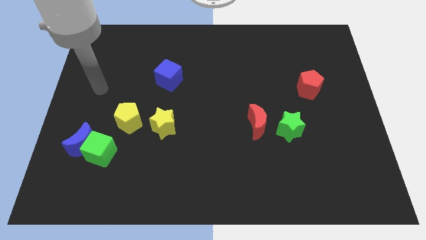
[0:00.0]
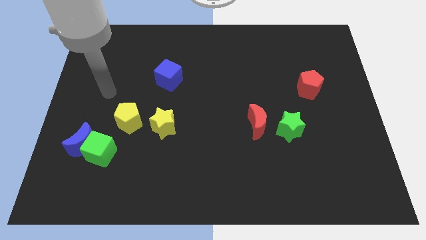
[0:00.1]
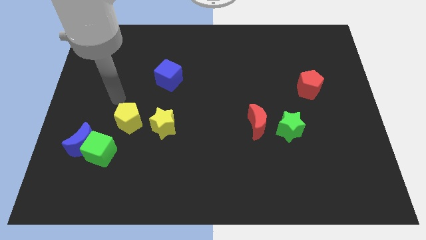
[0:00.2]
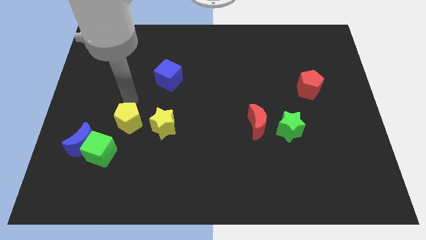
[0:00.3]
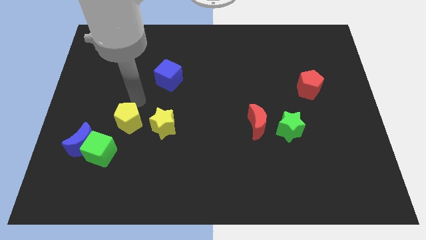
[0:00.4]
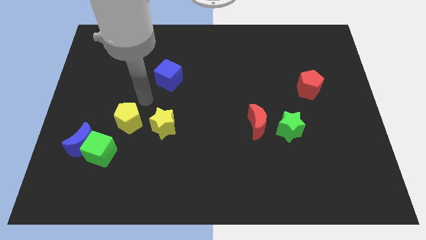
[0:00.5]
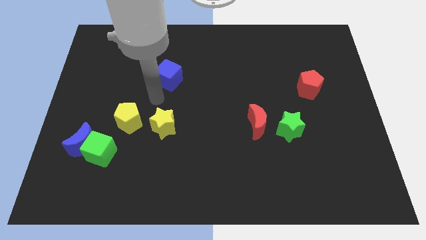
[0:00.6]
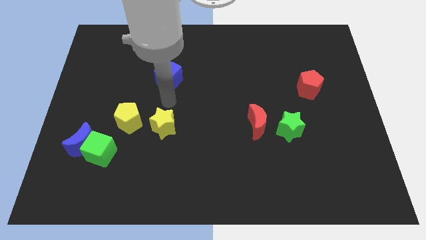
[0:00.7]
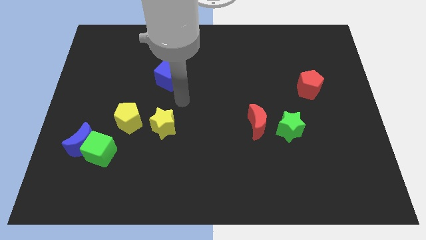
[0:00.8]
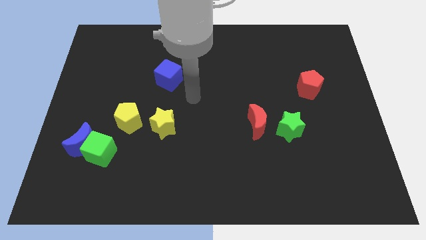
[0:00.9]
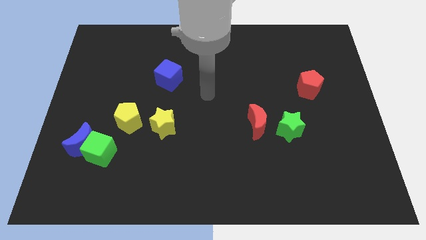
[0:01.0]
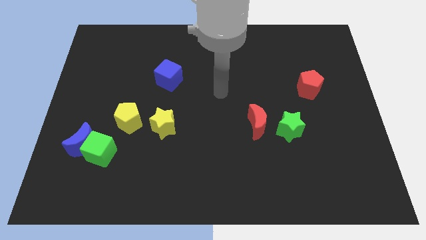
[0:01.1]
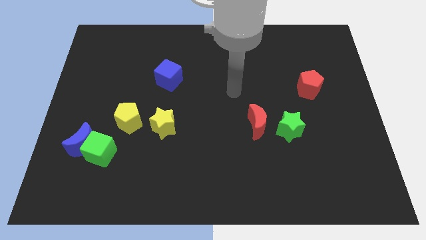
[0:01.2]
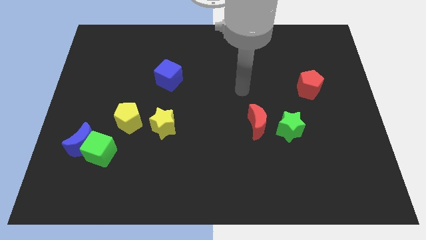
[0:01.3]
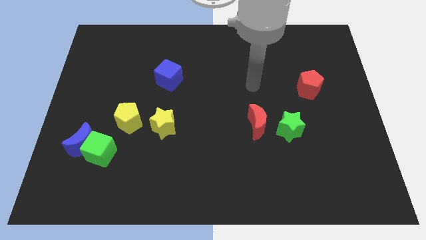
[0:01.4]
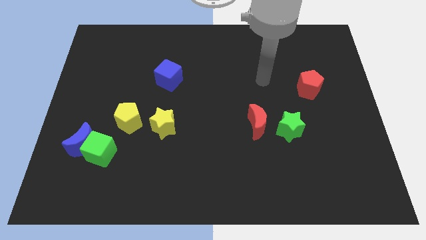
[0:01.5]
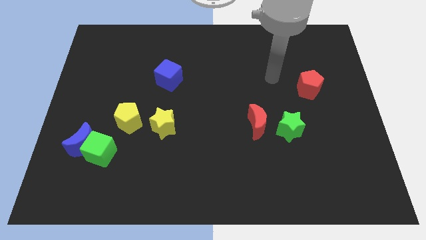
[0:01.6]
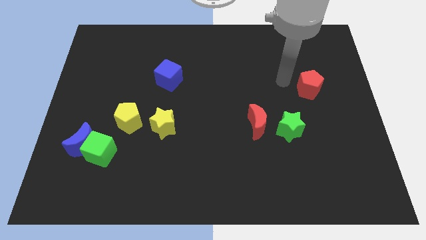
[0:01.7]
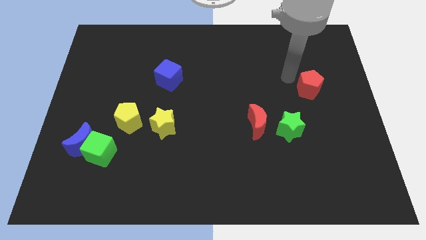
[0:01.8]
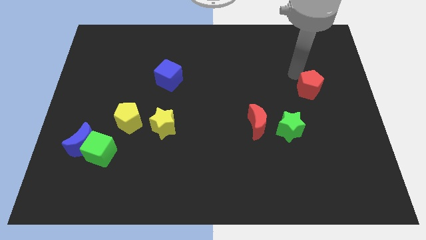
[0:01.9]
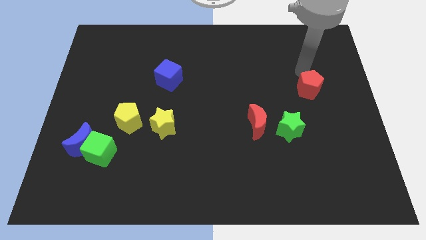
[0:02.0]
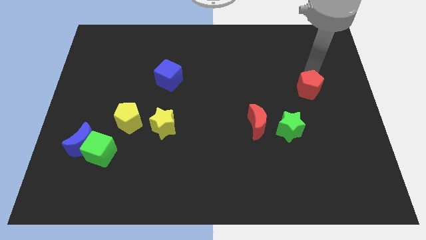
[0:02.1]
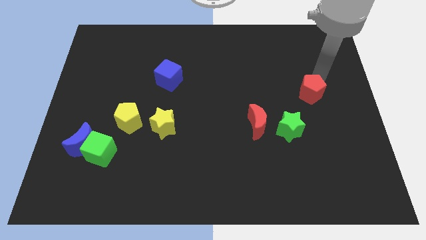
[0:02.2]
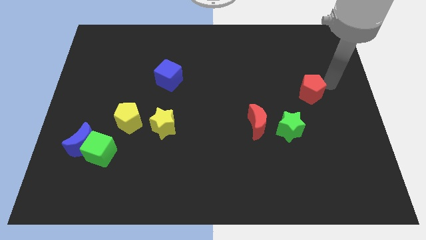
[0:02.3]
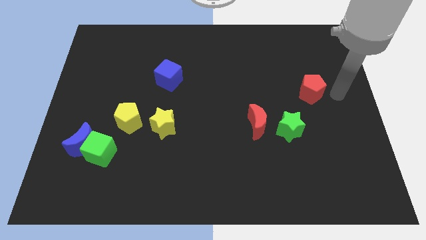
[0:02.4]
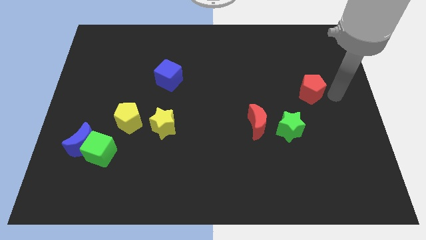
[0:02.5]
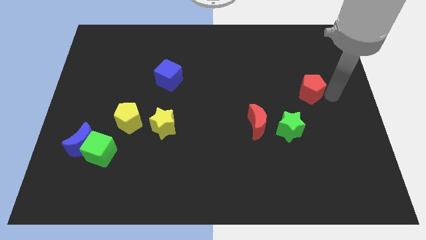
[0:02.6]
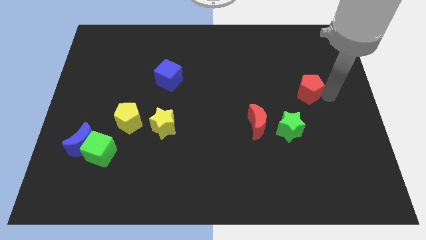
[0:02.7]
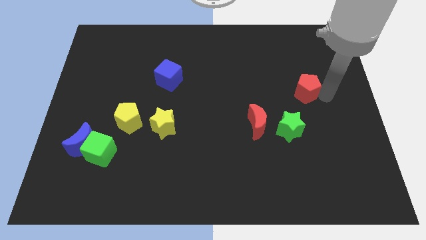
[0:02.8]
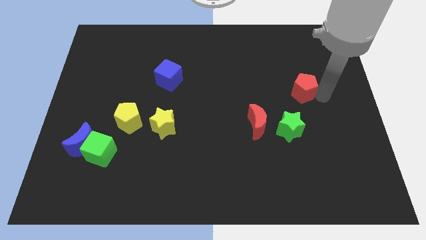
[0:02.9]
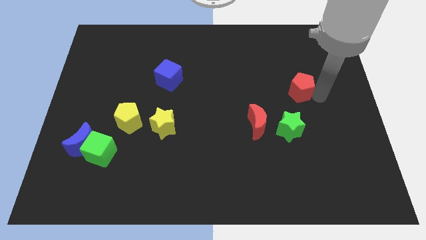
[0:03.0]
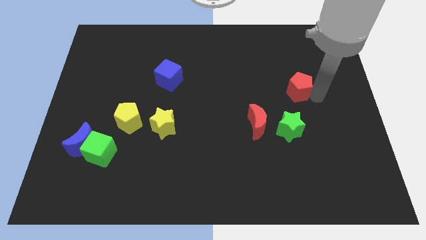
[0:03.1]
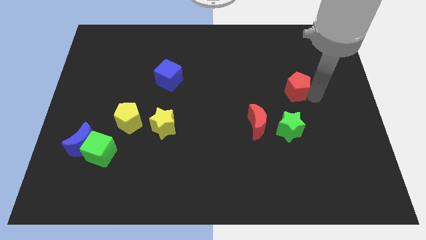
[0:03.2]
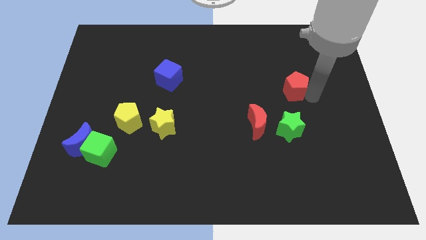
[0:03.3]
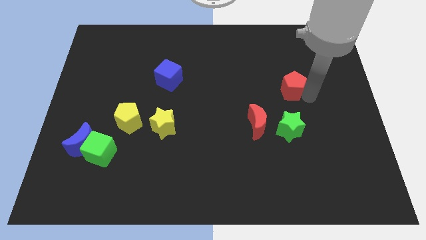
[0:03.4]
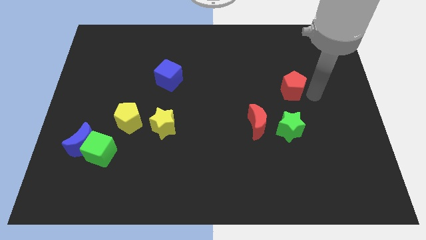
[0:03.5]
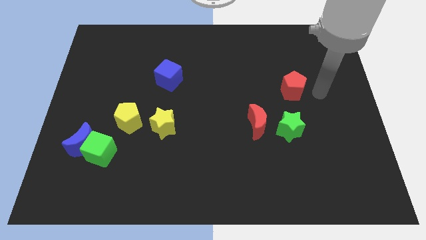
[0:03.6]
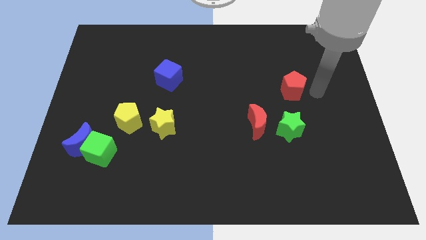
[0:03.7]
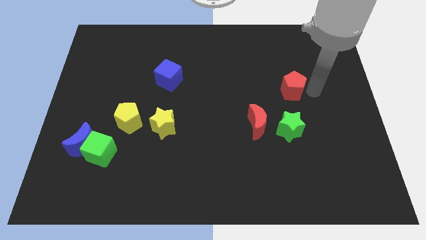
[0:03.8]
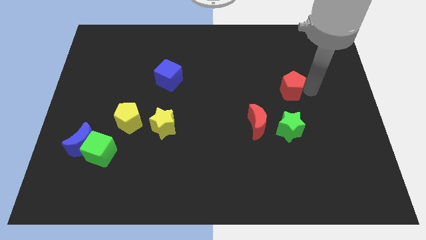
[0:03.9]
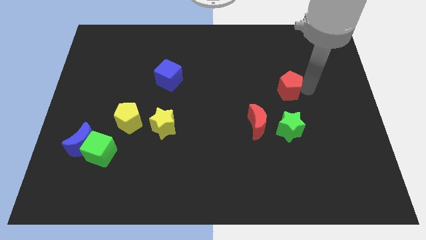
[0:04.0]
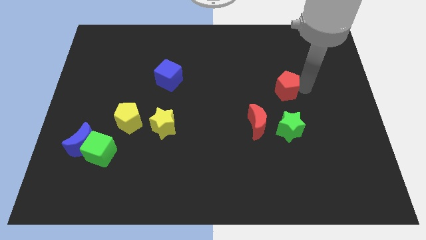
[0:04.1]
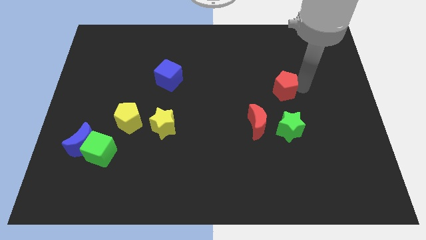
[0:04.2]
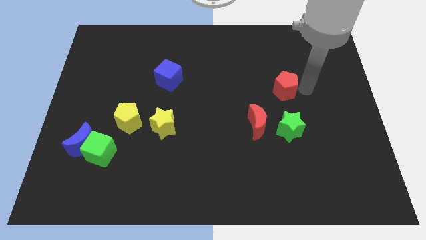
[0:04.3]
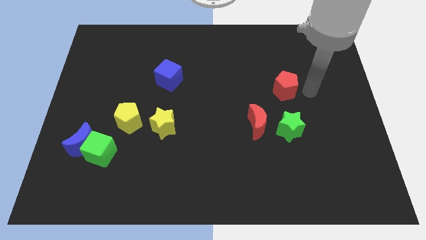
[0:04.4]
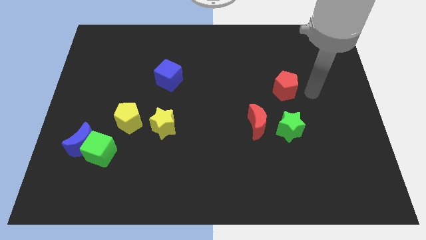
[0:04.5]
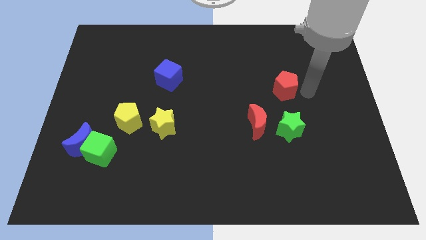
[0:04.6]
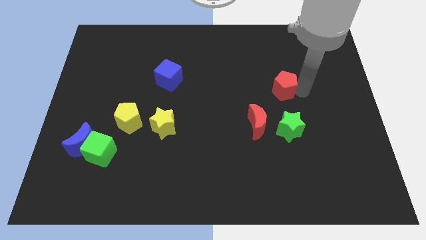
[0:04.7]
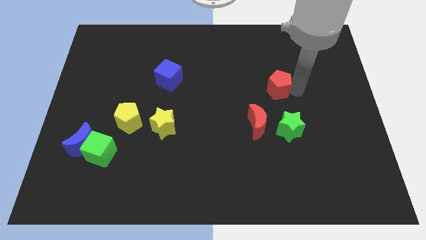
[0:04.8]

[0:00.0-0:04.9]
move the red pentagon left a bit

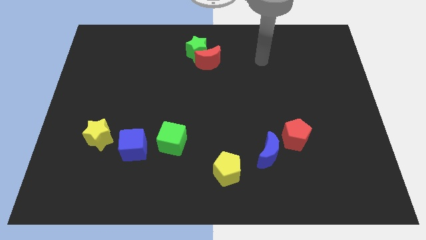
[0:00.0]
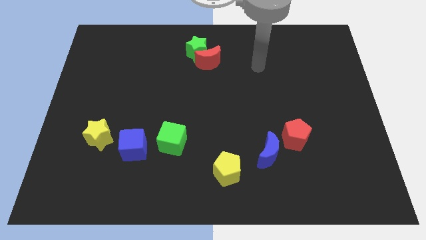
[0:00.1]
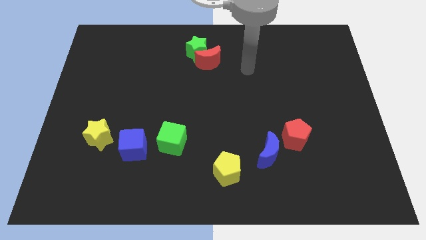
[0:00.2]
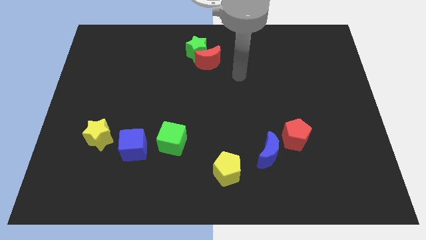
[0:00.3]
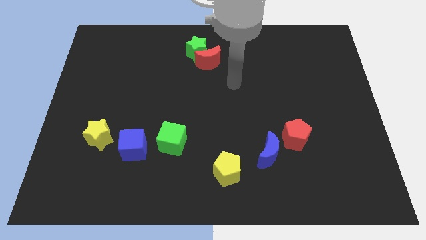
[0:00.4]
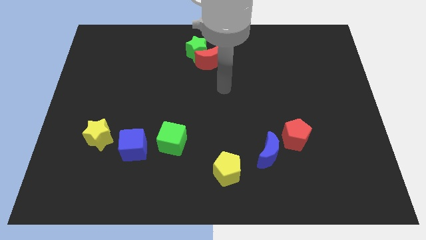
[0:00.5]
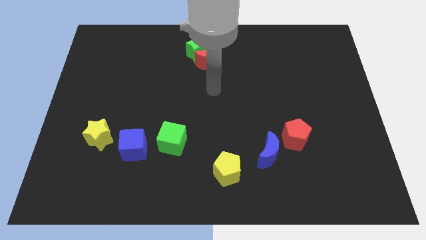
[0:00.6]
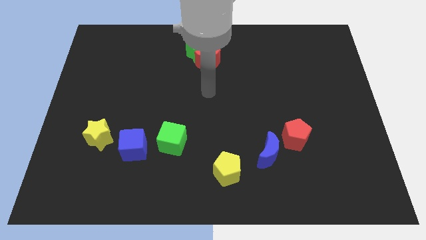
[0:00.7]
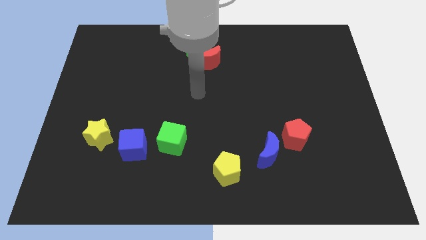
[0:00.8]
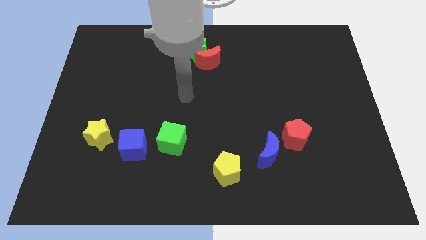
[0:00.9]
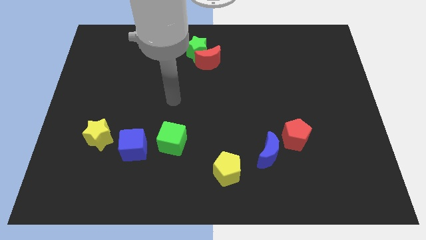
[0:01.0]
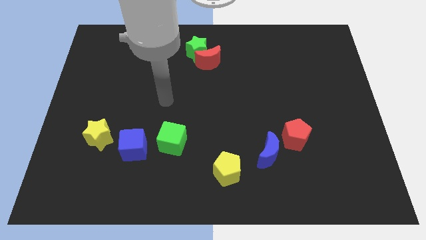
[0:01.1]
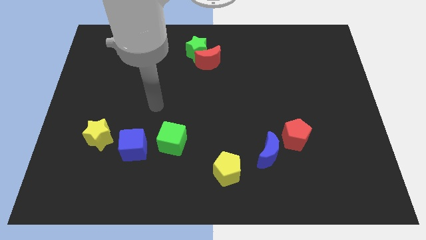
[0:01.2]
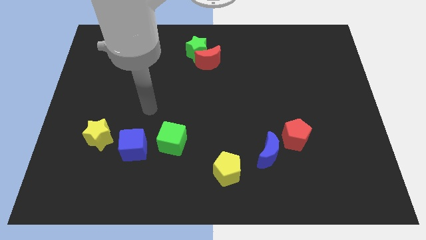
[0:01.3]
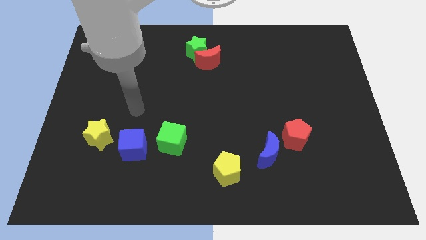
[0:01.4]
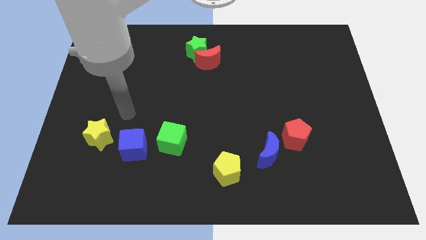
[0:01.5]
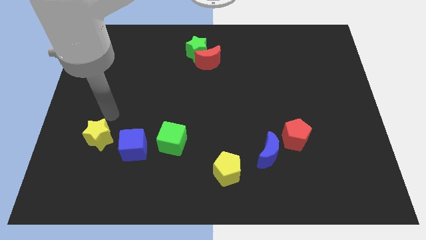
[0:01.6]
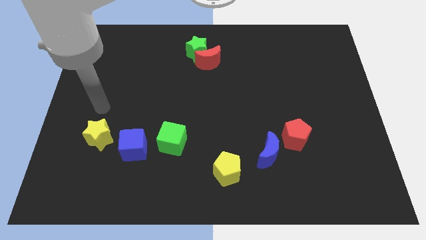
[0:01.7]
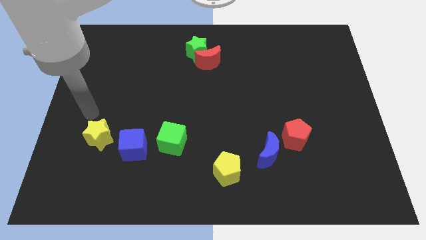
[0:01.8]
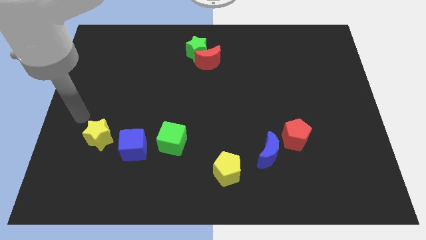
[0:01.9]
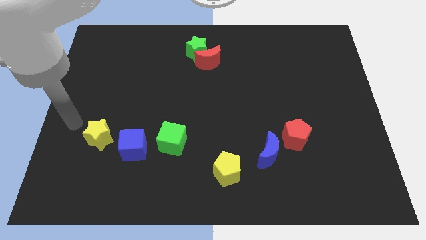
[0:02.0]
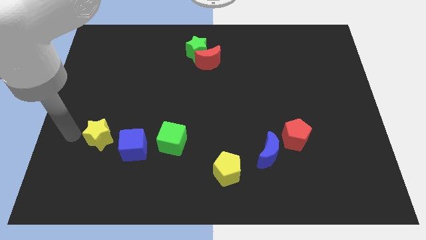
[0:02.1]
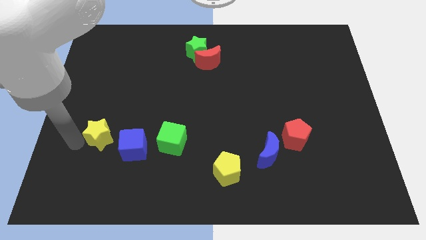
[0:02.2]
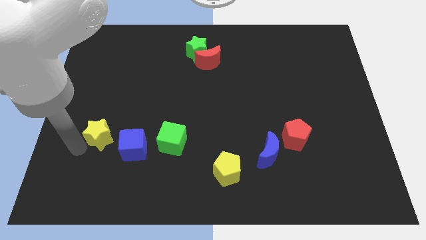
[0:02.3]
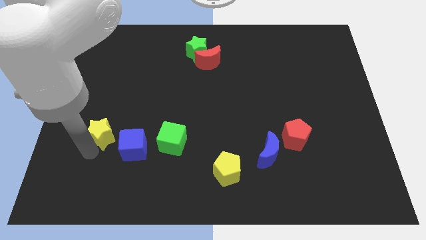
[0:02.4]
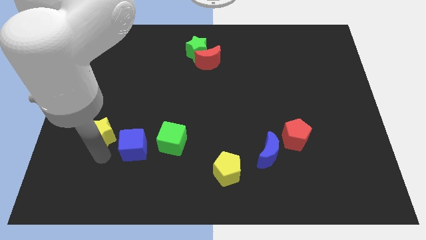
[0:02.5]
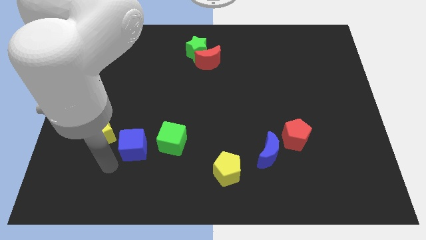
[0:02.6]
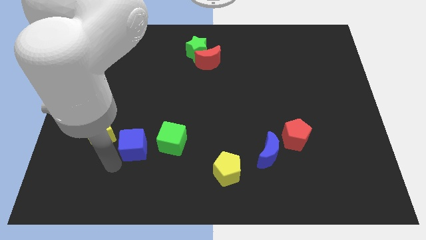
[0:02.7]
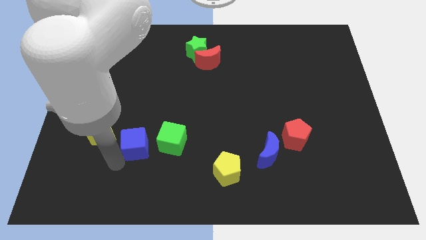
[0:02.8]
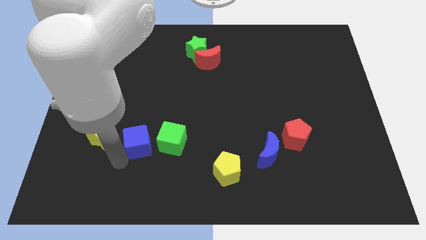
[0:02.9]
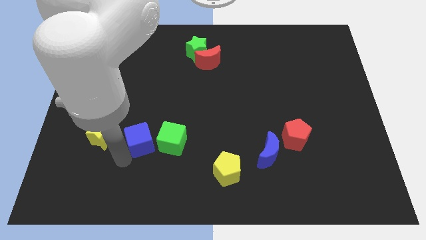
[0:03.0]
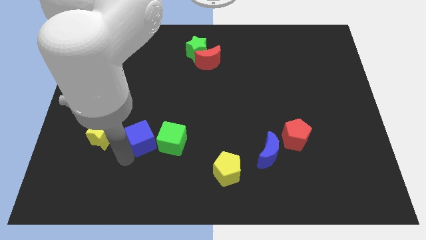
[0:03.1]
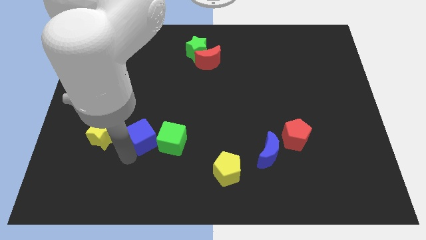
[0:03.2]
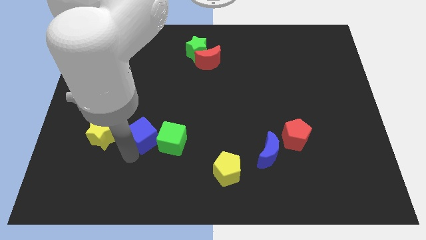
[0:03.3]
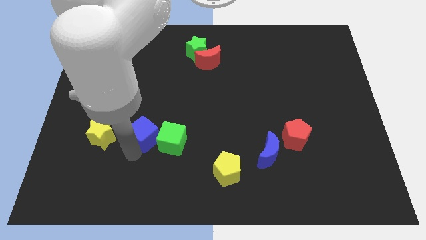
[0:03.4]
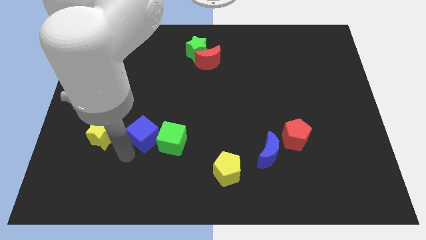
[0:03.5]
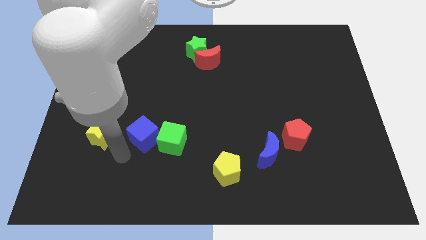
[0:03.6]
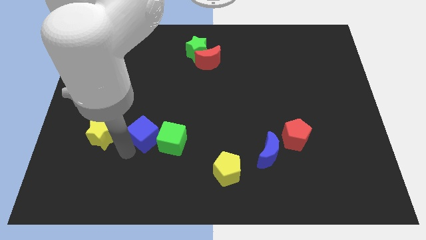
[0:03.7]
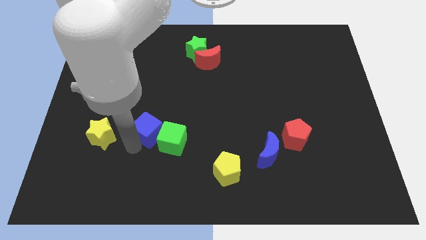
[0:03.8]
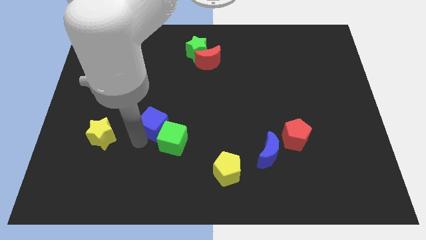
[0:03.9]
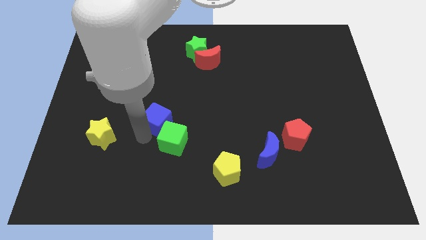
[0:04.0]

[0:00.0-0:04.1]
slightly slide the blue cube up and right diagonally
